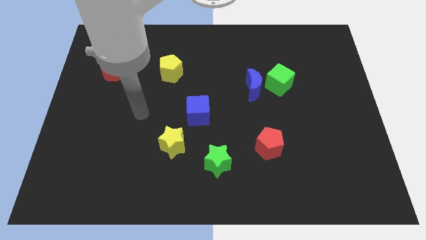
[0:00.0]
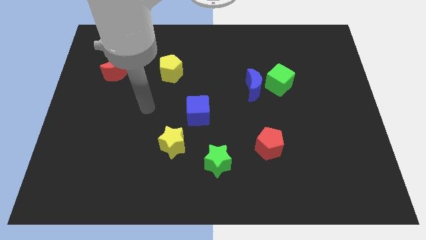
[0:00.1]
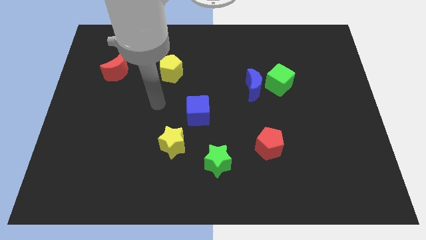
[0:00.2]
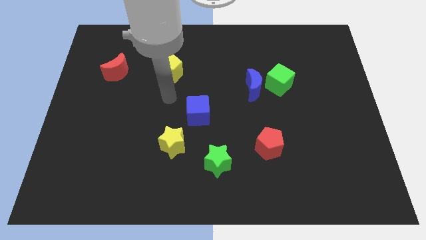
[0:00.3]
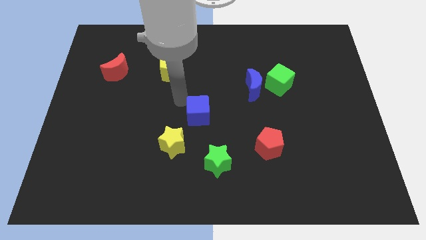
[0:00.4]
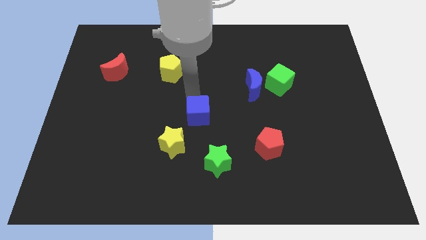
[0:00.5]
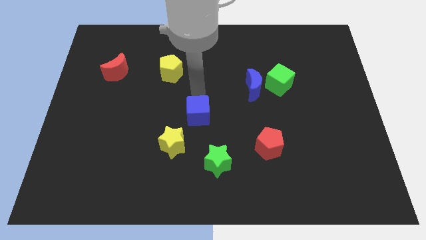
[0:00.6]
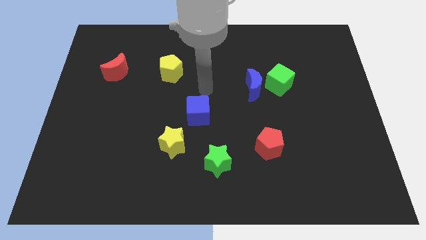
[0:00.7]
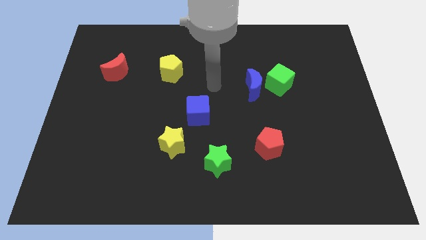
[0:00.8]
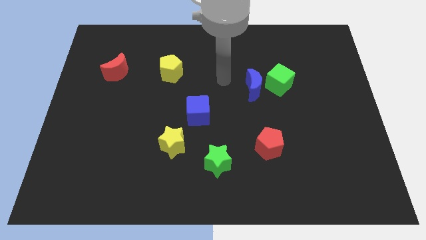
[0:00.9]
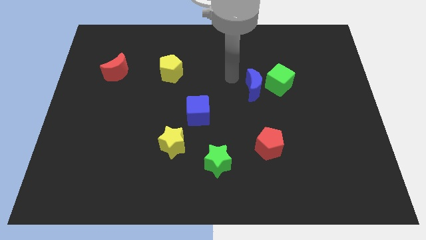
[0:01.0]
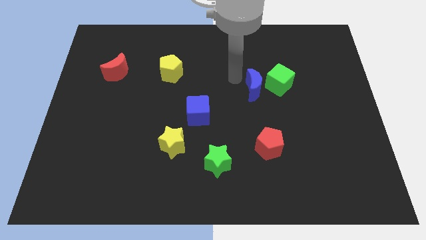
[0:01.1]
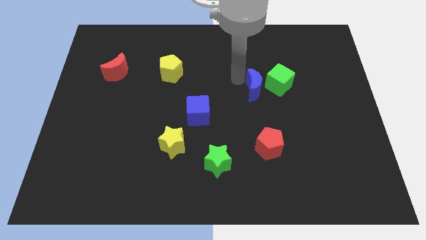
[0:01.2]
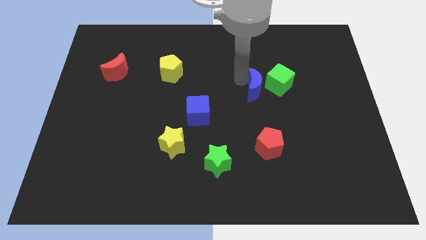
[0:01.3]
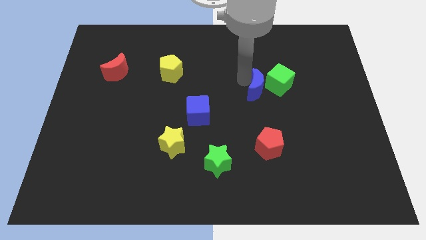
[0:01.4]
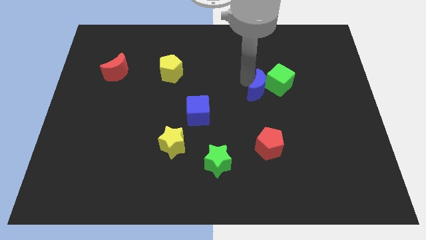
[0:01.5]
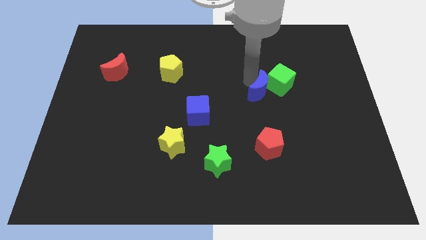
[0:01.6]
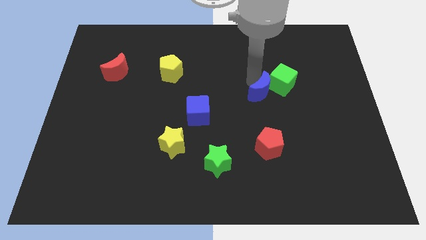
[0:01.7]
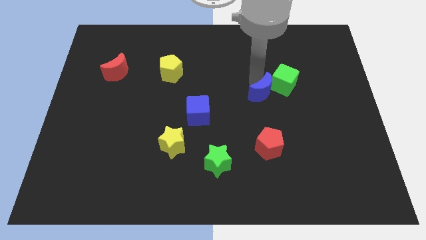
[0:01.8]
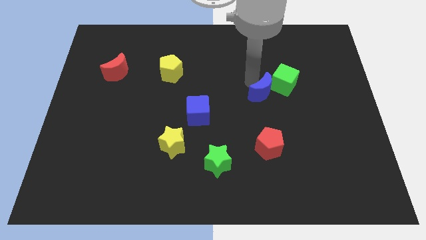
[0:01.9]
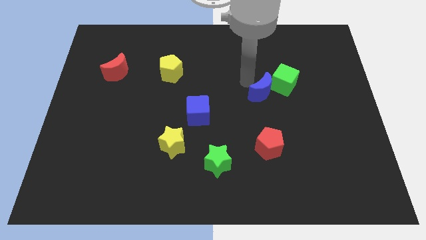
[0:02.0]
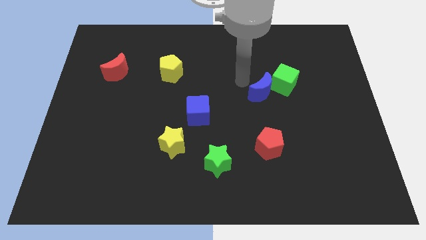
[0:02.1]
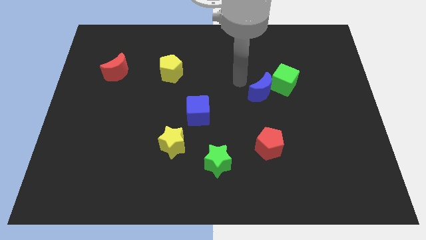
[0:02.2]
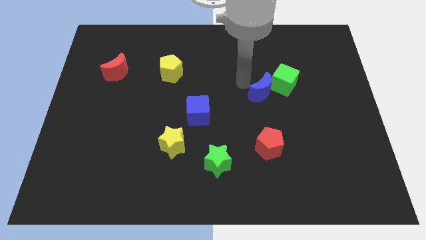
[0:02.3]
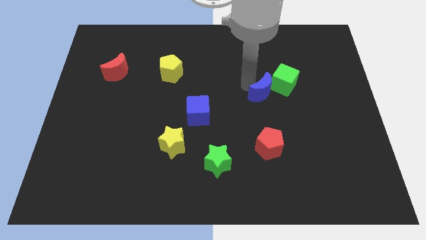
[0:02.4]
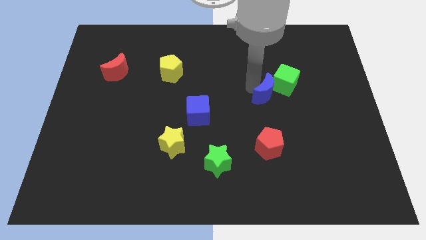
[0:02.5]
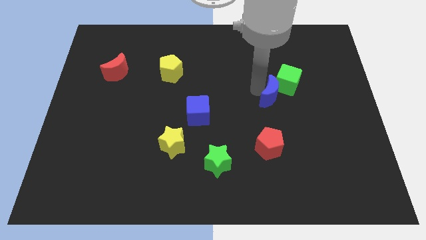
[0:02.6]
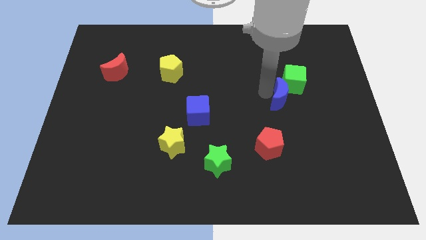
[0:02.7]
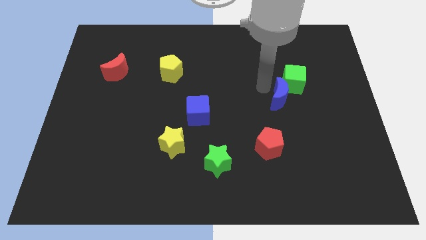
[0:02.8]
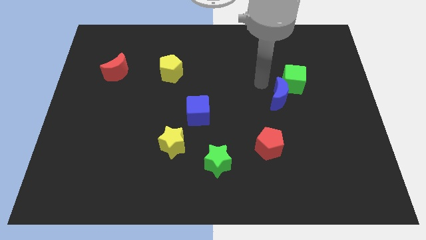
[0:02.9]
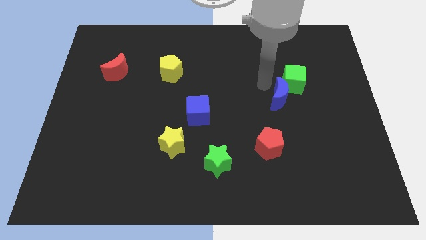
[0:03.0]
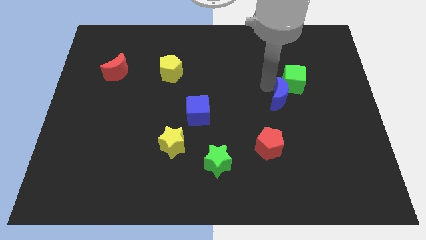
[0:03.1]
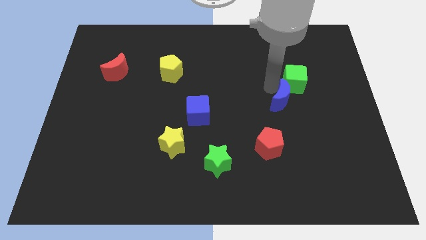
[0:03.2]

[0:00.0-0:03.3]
move the blue moon diagonally downwards and to the right somewhat

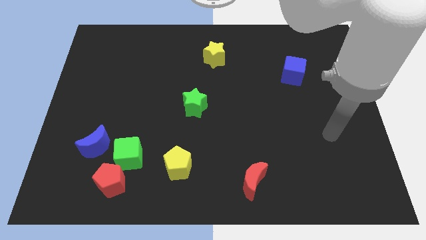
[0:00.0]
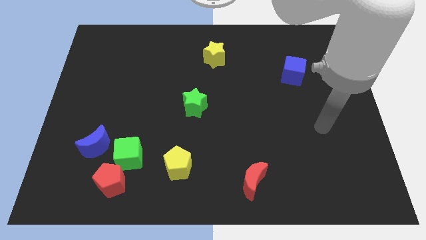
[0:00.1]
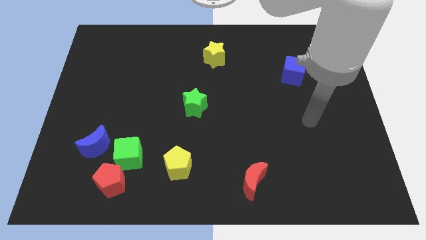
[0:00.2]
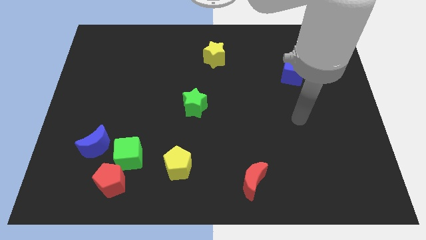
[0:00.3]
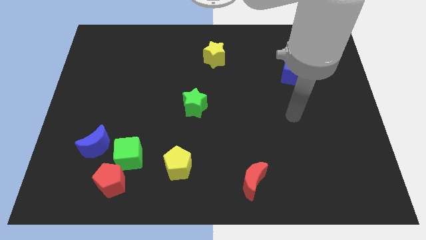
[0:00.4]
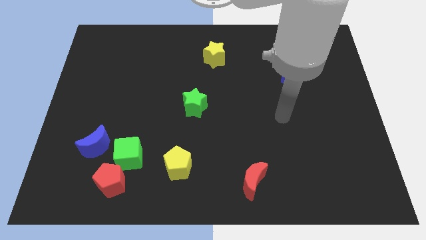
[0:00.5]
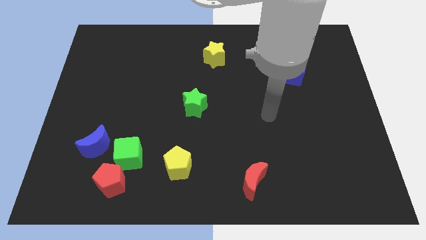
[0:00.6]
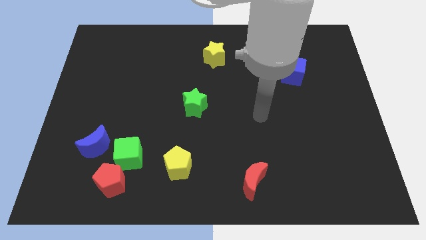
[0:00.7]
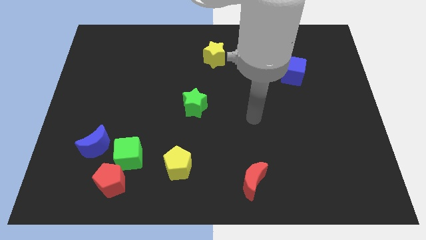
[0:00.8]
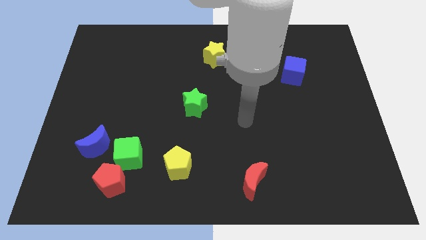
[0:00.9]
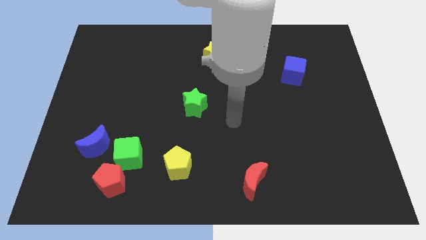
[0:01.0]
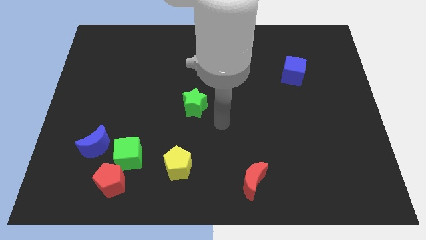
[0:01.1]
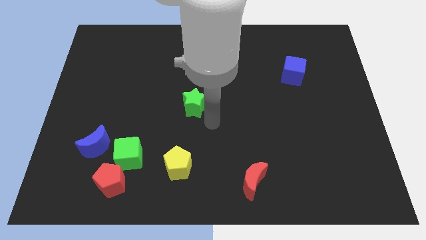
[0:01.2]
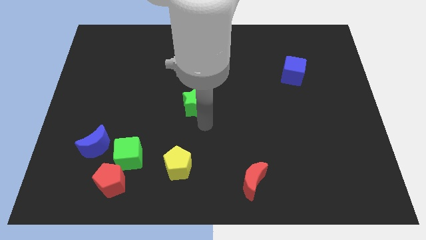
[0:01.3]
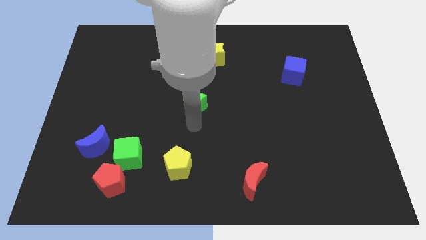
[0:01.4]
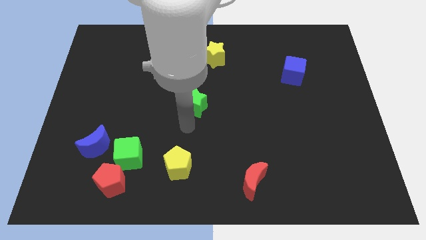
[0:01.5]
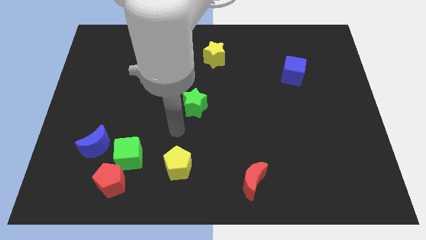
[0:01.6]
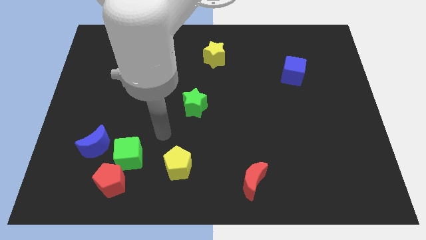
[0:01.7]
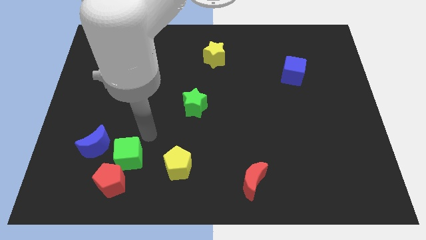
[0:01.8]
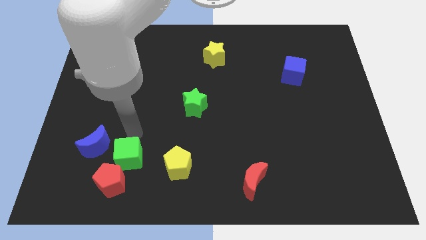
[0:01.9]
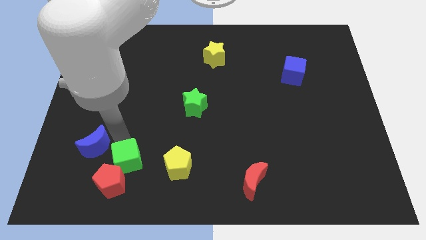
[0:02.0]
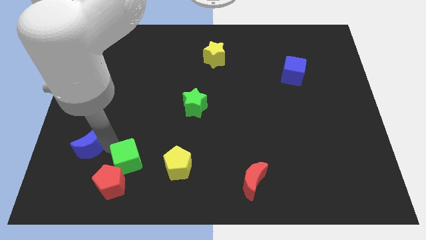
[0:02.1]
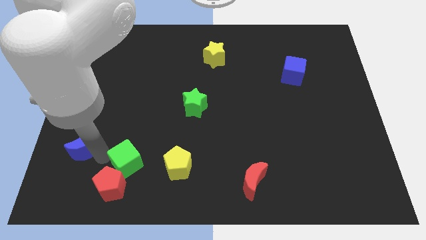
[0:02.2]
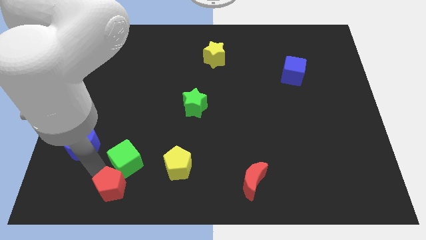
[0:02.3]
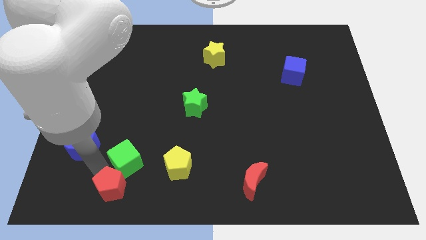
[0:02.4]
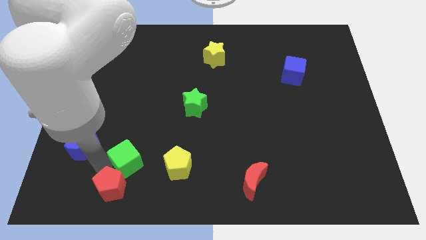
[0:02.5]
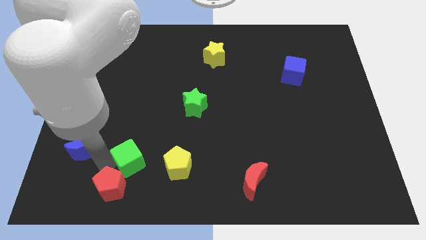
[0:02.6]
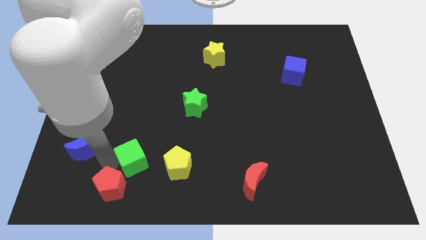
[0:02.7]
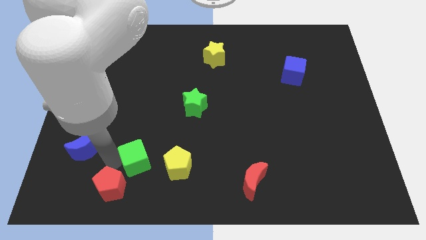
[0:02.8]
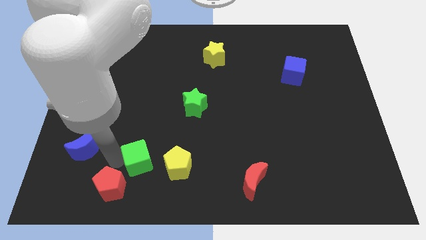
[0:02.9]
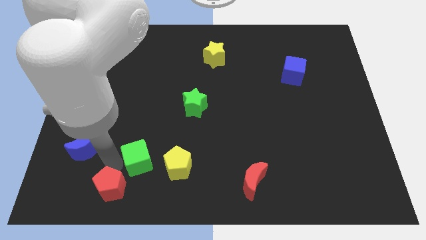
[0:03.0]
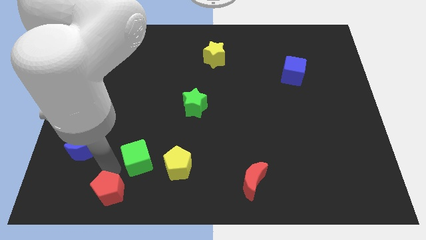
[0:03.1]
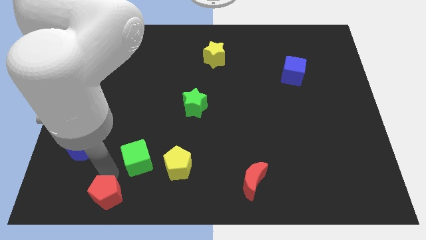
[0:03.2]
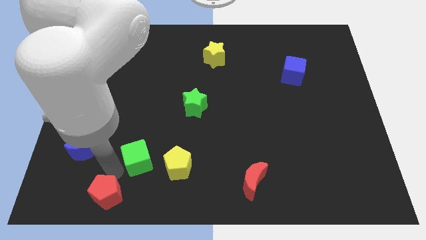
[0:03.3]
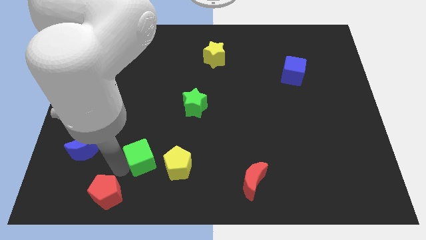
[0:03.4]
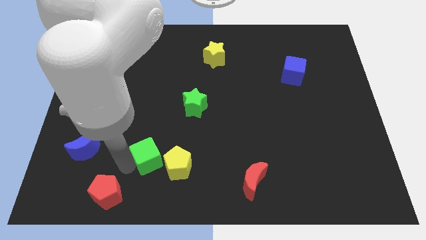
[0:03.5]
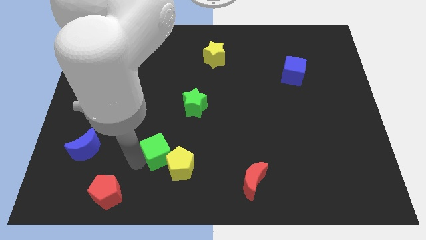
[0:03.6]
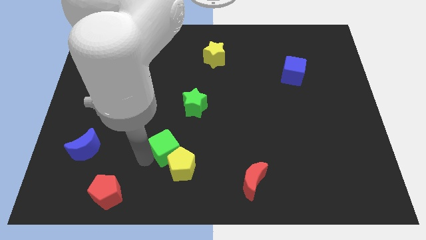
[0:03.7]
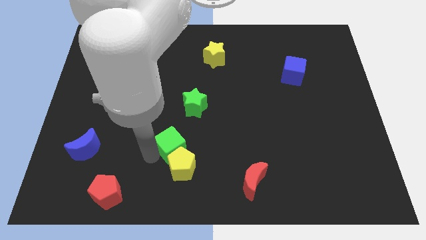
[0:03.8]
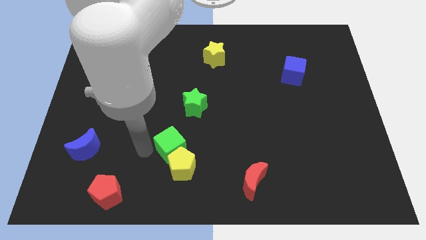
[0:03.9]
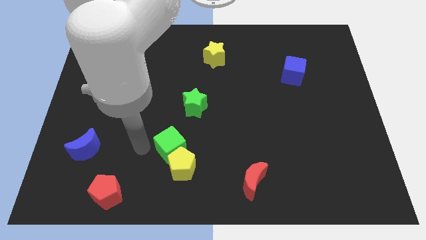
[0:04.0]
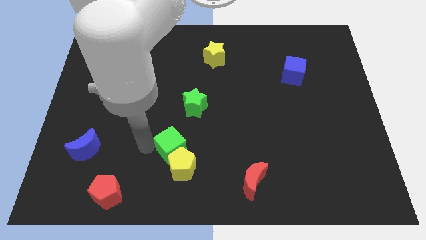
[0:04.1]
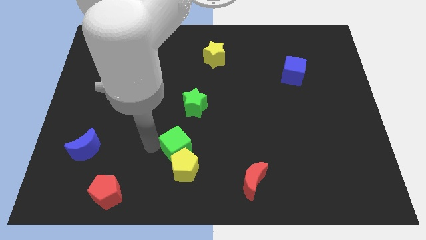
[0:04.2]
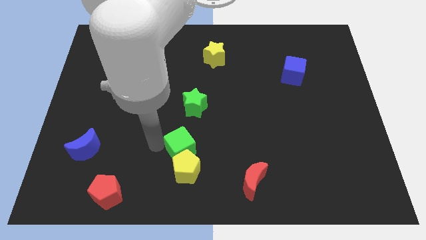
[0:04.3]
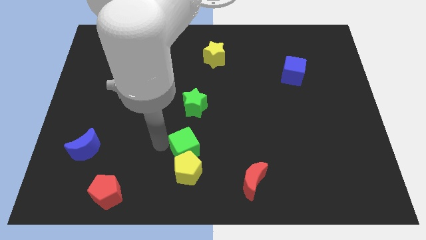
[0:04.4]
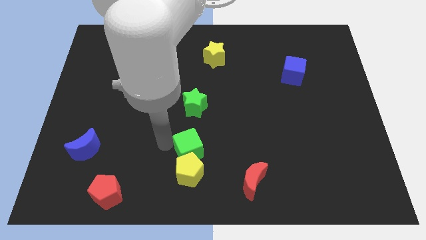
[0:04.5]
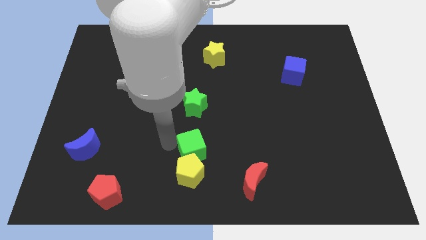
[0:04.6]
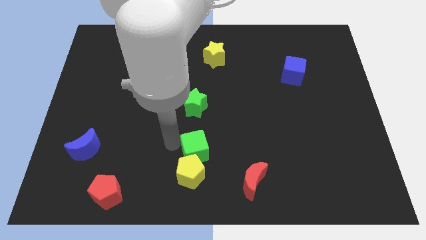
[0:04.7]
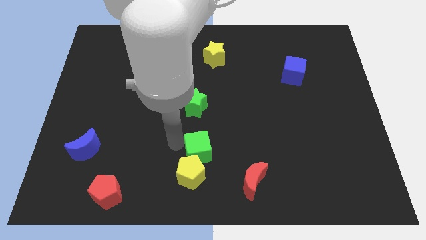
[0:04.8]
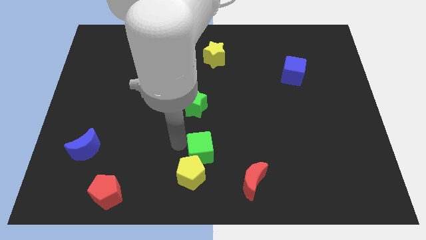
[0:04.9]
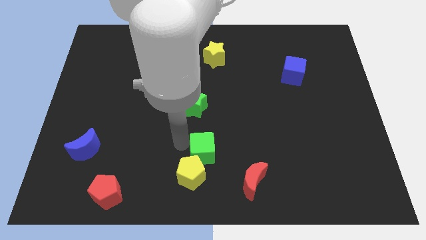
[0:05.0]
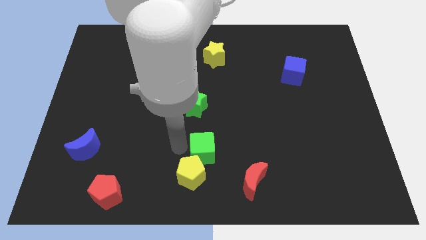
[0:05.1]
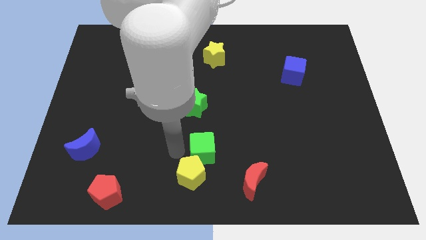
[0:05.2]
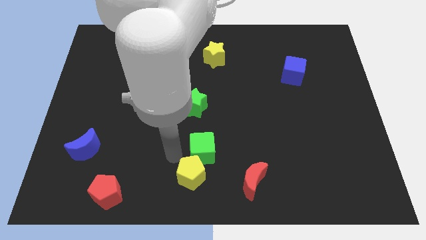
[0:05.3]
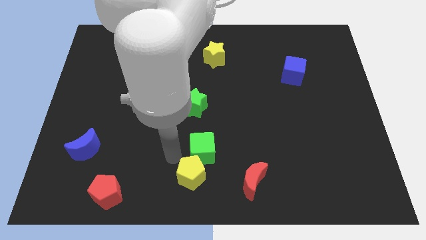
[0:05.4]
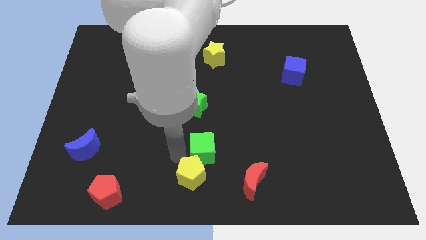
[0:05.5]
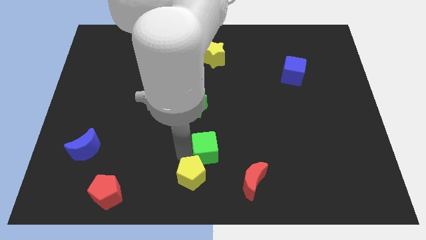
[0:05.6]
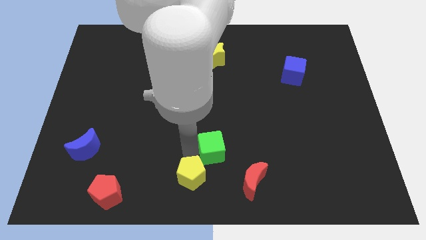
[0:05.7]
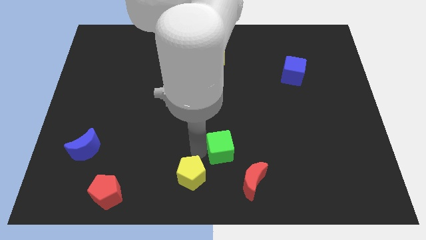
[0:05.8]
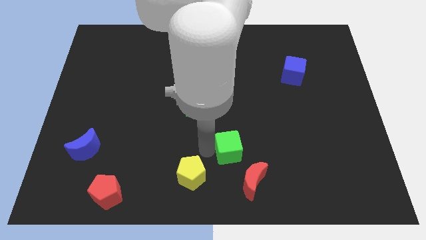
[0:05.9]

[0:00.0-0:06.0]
slide the green cube right
